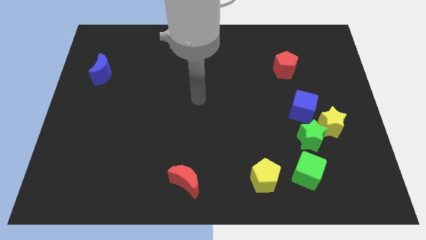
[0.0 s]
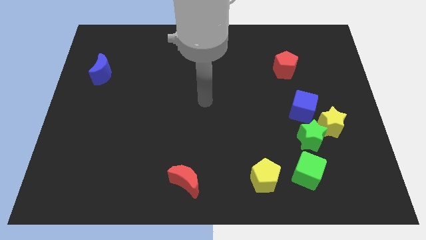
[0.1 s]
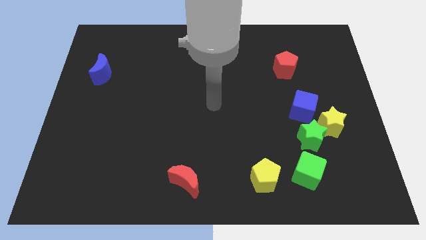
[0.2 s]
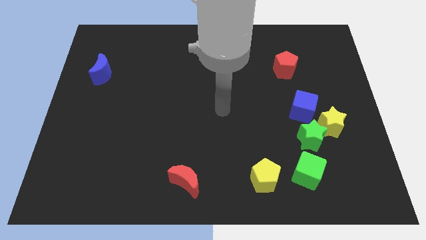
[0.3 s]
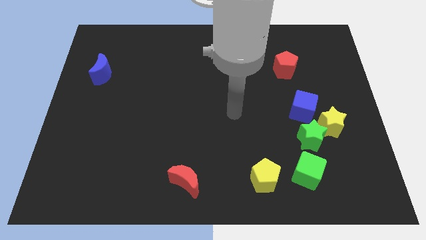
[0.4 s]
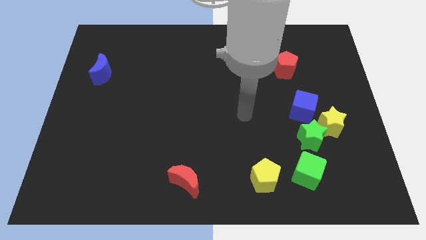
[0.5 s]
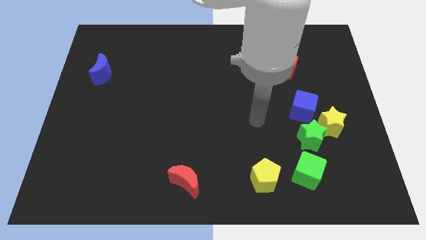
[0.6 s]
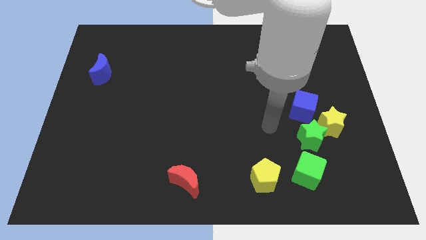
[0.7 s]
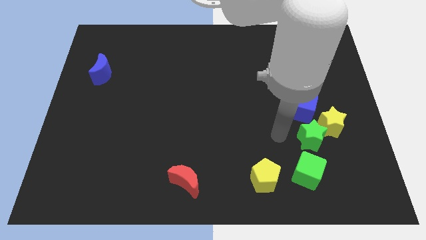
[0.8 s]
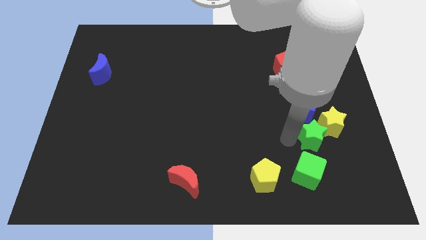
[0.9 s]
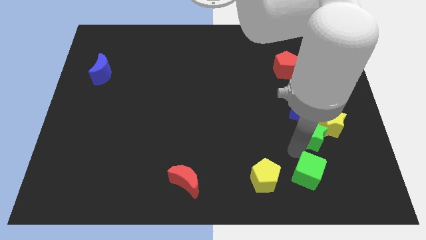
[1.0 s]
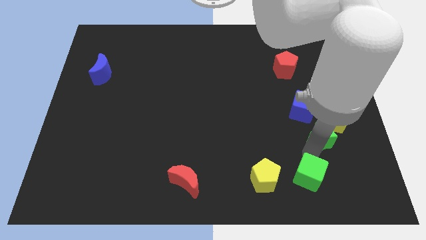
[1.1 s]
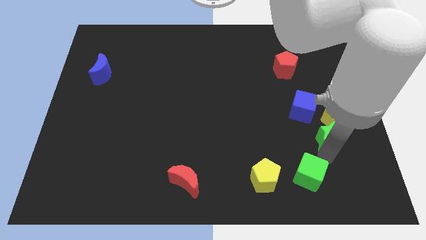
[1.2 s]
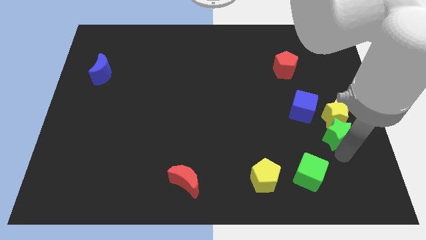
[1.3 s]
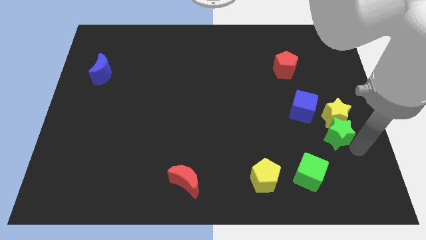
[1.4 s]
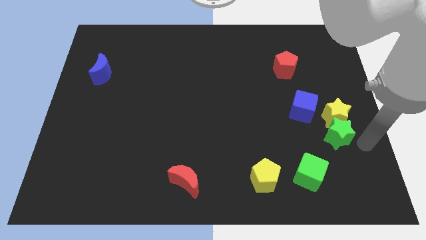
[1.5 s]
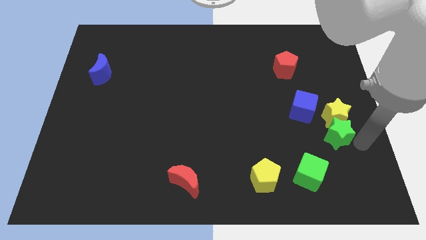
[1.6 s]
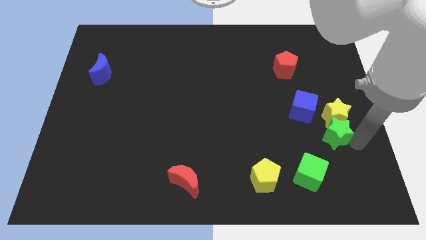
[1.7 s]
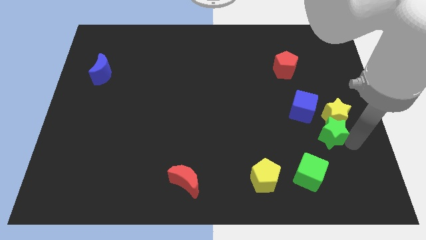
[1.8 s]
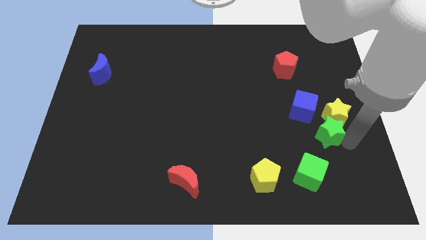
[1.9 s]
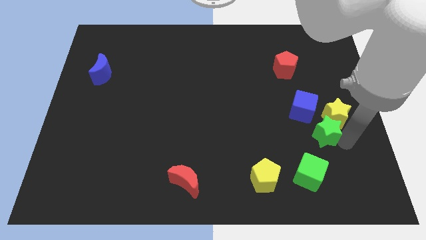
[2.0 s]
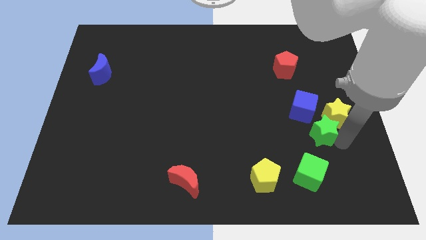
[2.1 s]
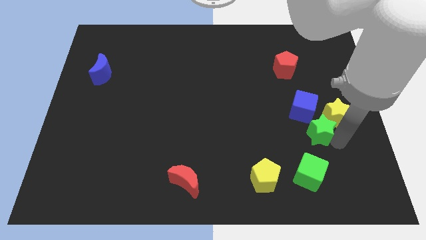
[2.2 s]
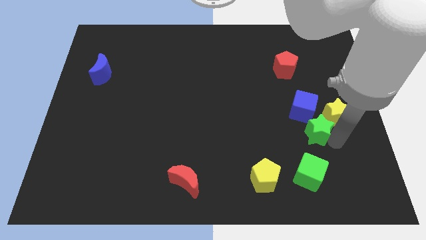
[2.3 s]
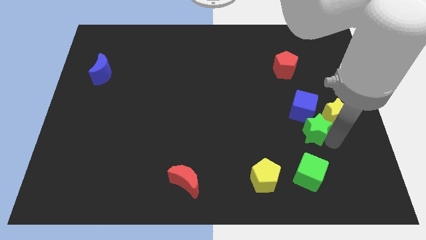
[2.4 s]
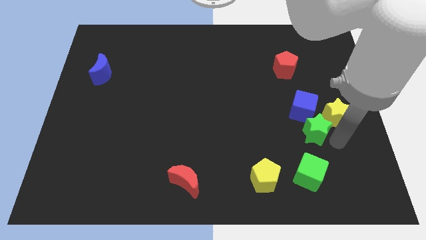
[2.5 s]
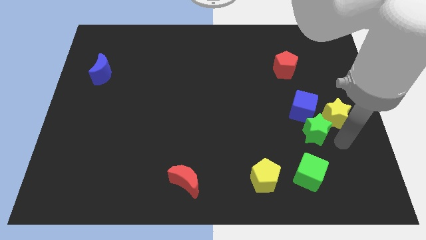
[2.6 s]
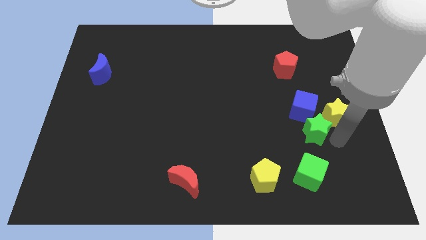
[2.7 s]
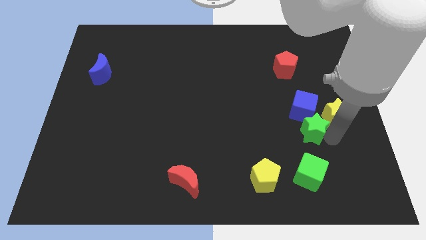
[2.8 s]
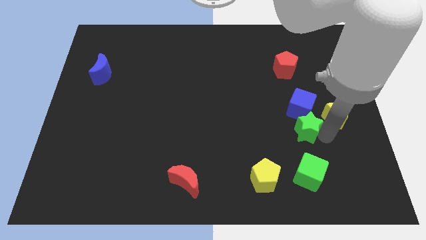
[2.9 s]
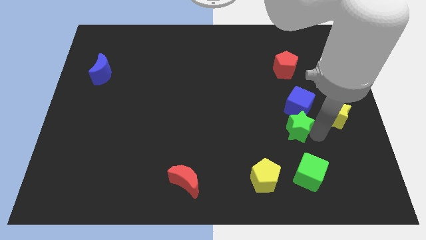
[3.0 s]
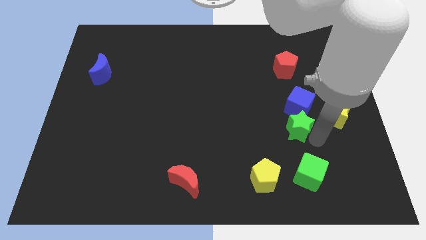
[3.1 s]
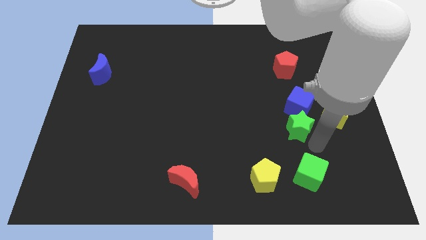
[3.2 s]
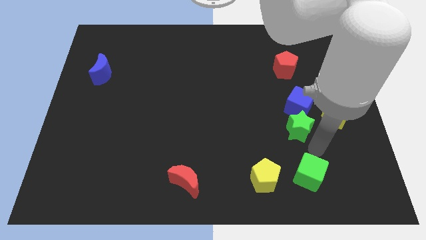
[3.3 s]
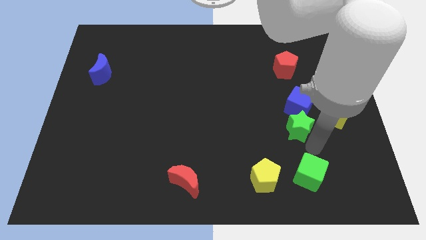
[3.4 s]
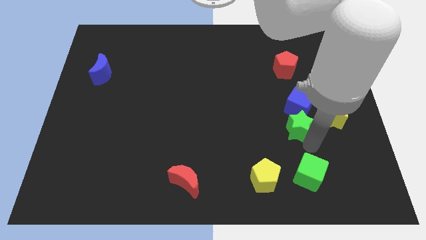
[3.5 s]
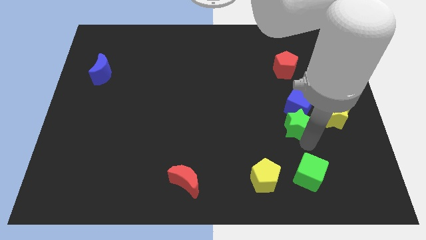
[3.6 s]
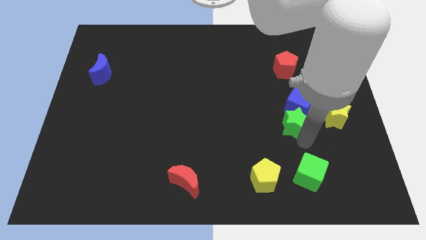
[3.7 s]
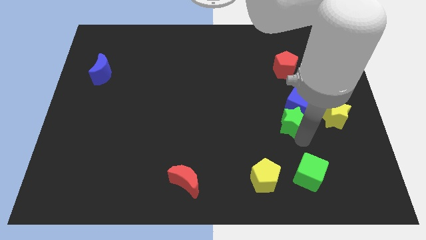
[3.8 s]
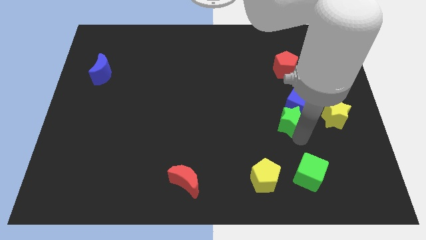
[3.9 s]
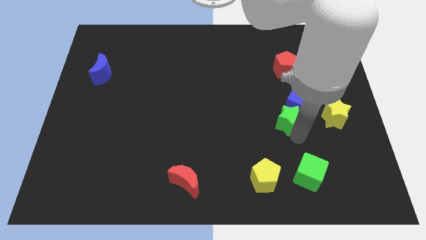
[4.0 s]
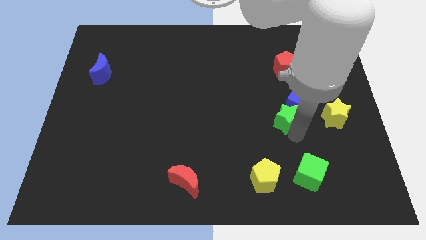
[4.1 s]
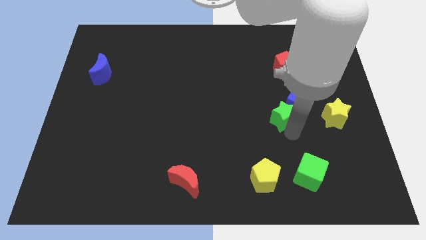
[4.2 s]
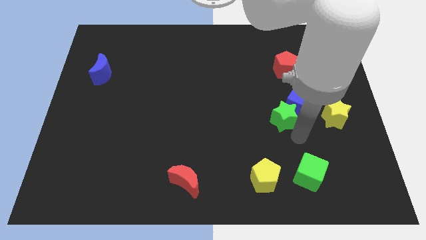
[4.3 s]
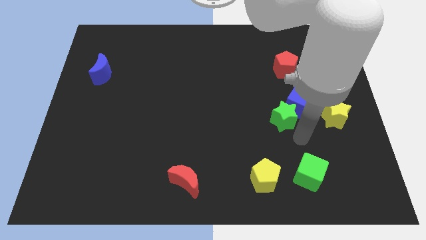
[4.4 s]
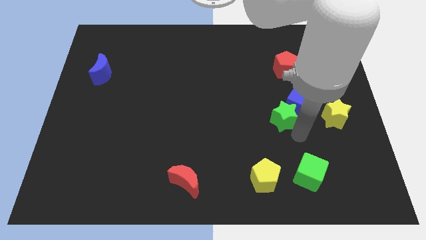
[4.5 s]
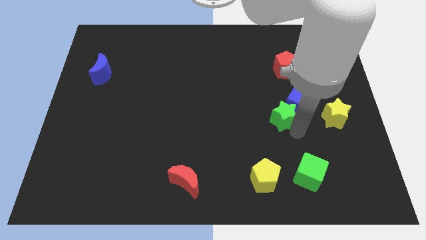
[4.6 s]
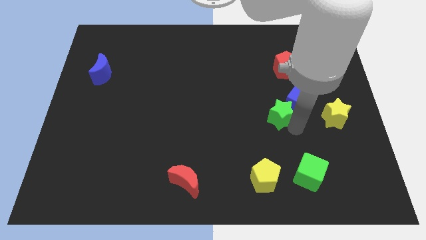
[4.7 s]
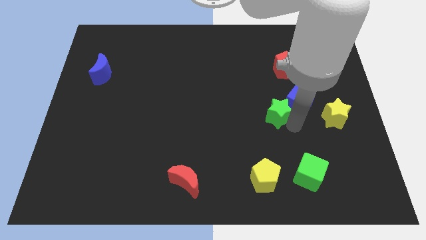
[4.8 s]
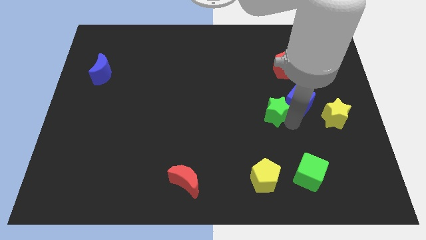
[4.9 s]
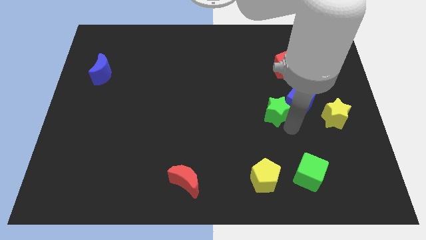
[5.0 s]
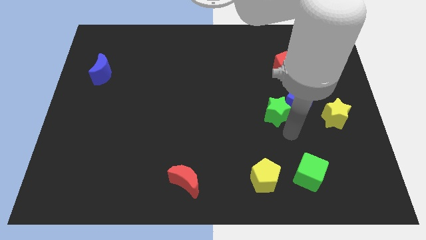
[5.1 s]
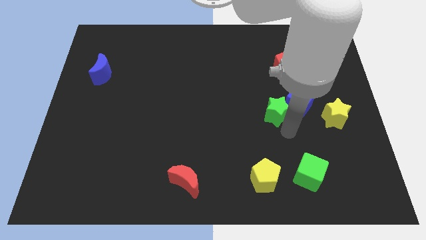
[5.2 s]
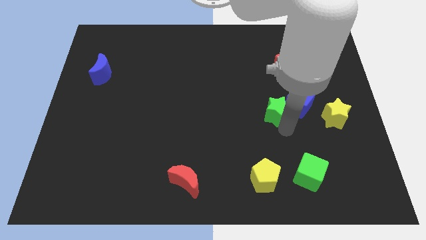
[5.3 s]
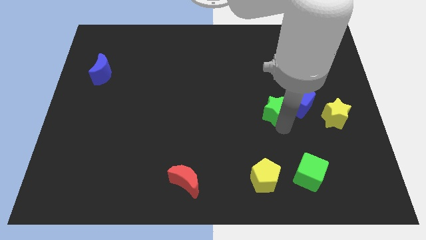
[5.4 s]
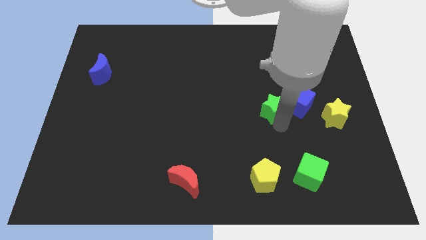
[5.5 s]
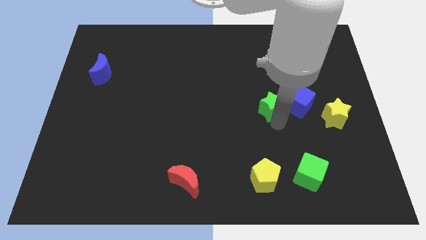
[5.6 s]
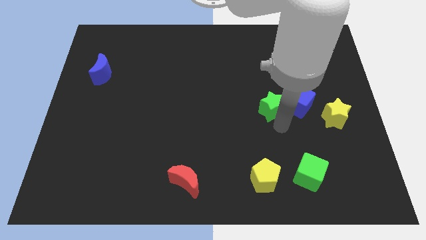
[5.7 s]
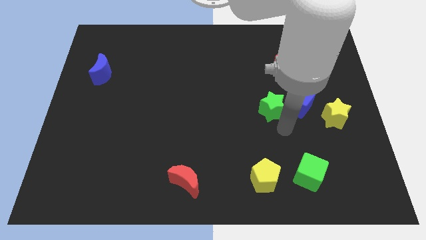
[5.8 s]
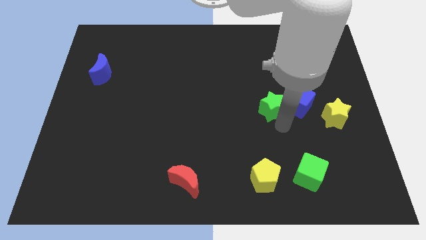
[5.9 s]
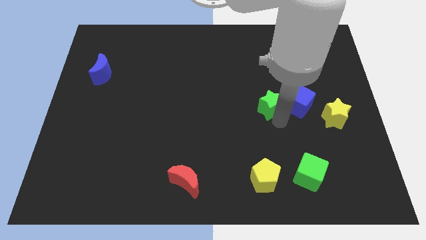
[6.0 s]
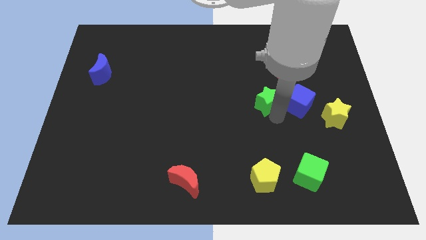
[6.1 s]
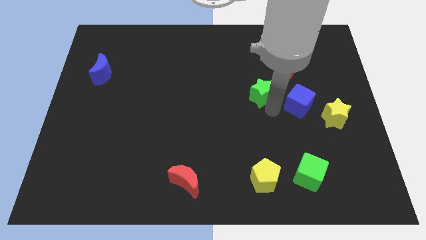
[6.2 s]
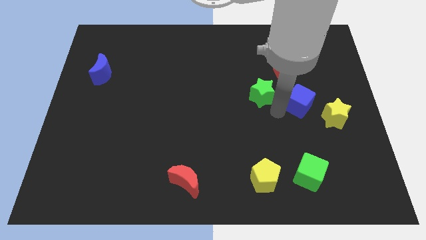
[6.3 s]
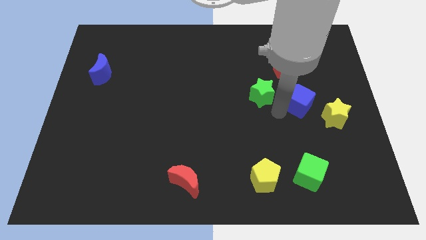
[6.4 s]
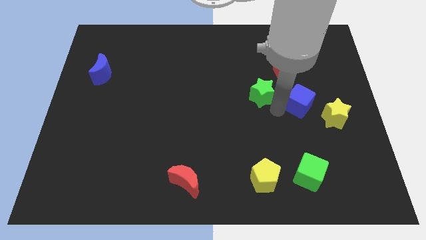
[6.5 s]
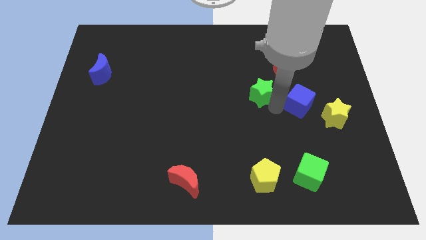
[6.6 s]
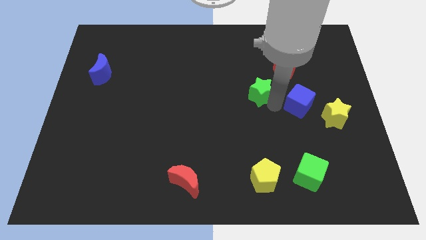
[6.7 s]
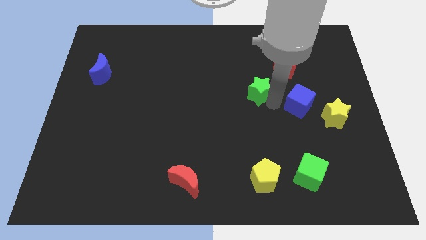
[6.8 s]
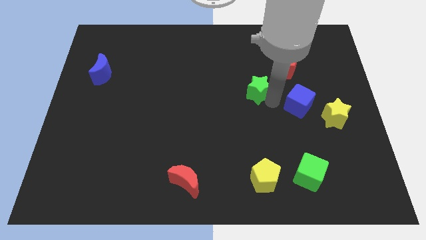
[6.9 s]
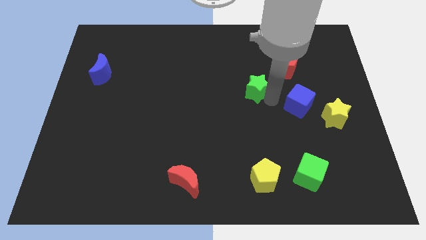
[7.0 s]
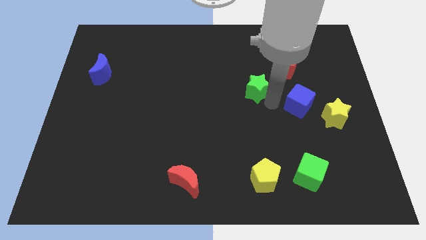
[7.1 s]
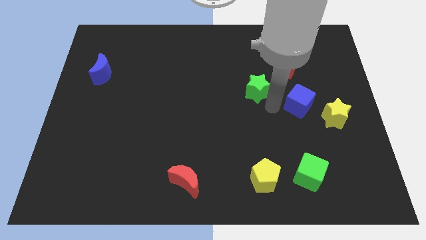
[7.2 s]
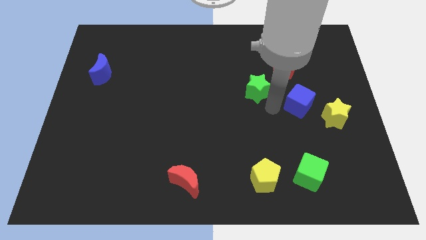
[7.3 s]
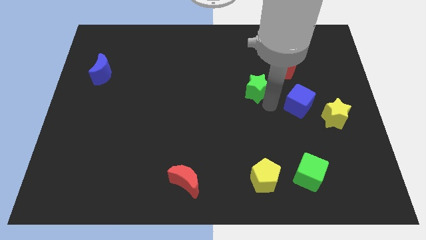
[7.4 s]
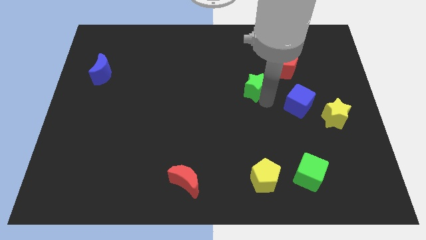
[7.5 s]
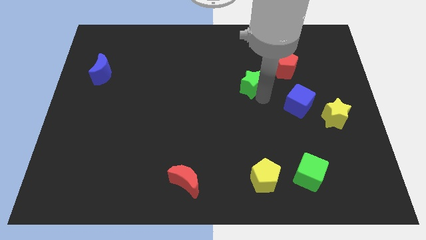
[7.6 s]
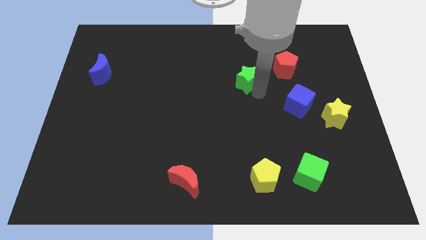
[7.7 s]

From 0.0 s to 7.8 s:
move the green star up and then to the left

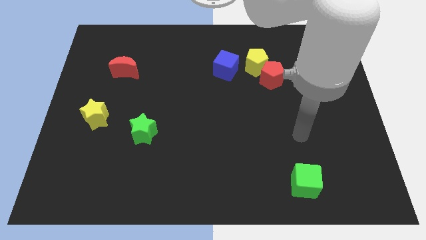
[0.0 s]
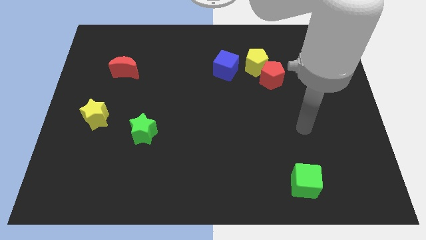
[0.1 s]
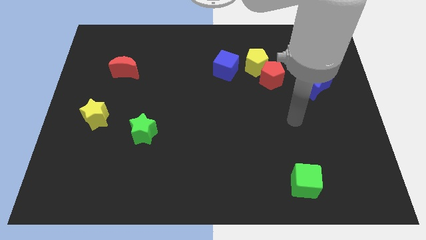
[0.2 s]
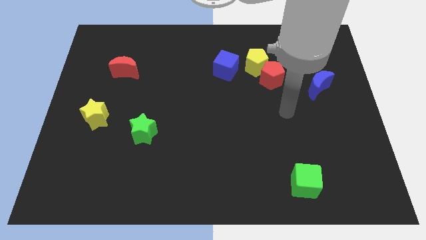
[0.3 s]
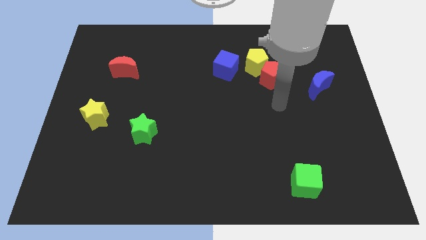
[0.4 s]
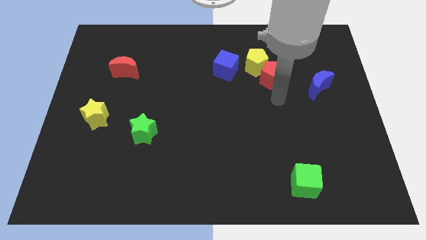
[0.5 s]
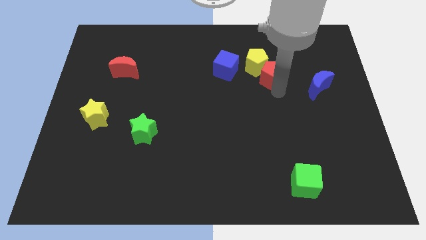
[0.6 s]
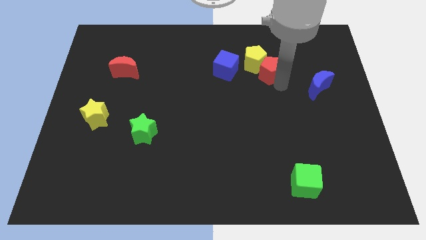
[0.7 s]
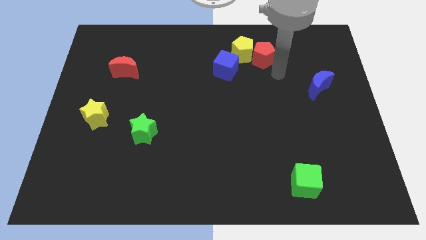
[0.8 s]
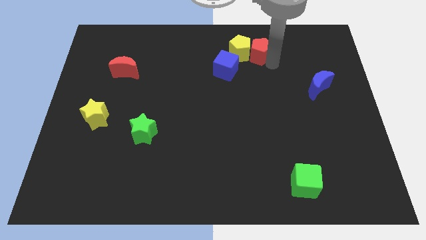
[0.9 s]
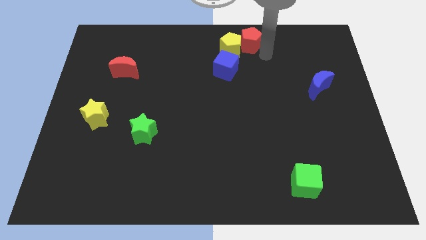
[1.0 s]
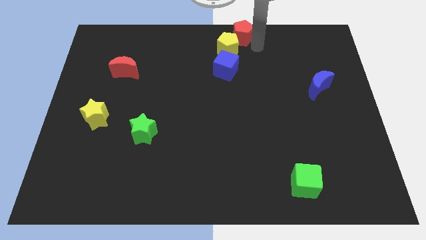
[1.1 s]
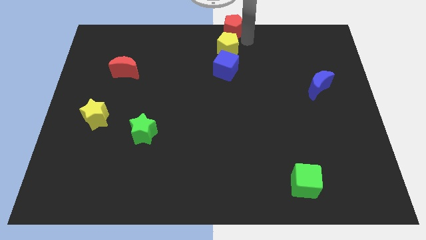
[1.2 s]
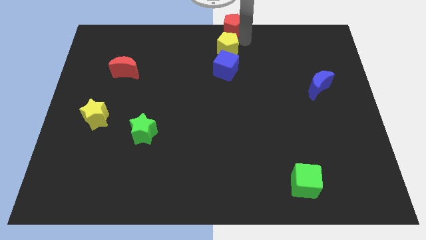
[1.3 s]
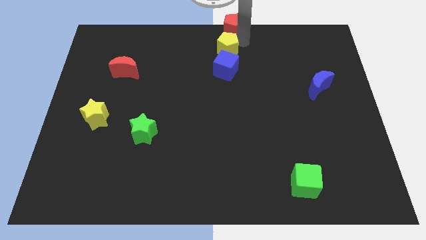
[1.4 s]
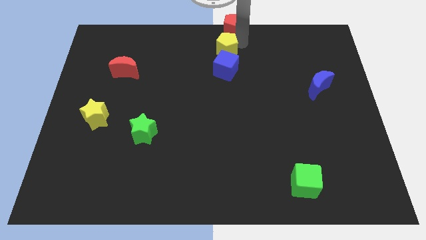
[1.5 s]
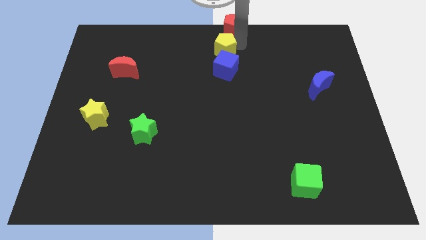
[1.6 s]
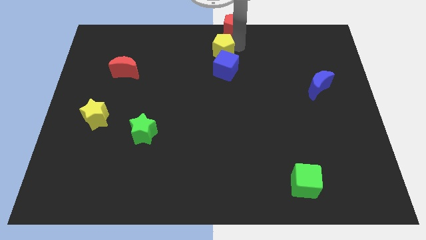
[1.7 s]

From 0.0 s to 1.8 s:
slide the yellow pentagon somewhat to the left
